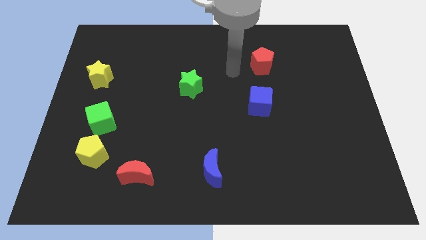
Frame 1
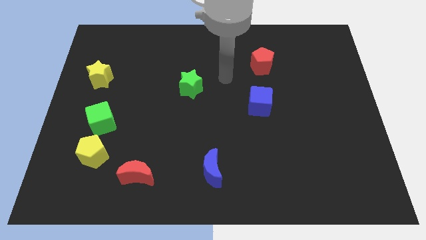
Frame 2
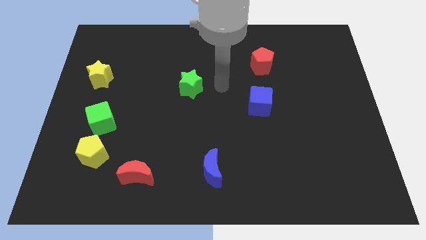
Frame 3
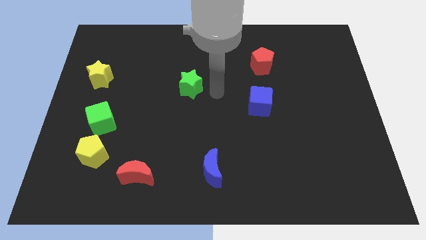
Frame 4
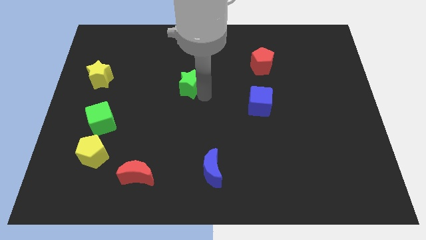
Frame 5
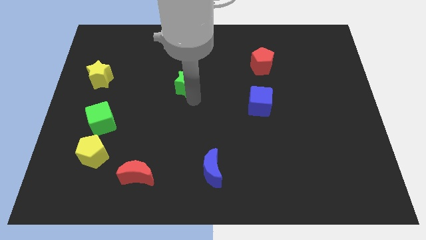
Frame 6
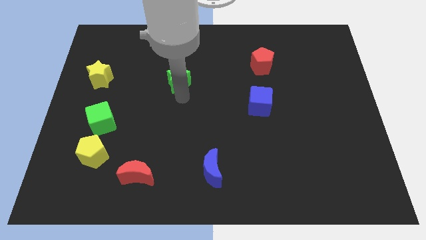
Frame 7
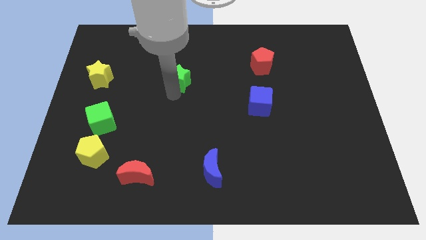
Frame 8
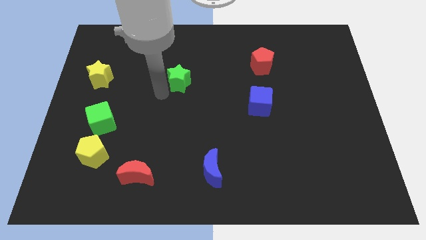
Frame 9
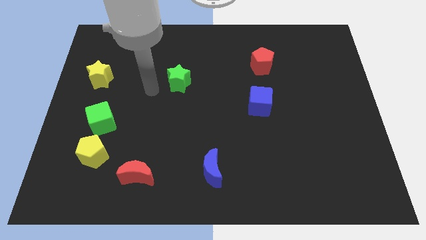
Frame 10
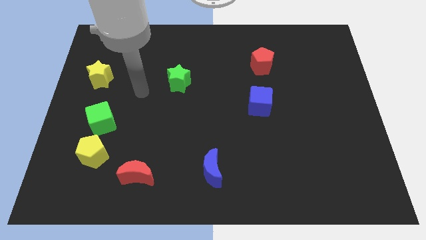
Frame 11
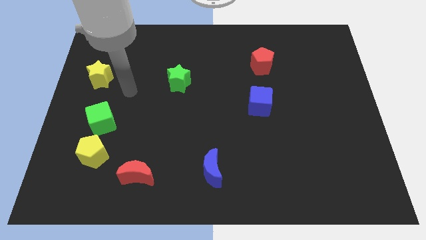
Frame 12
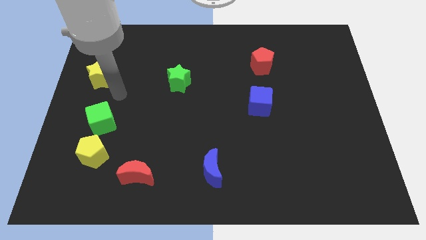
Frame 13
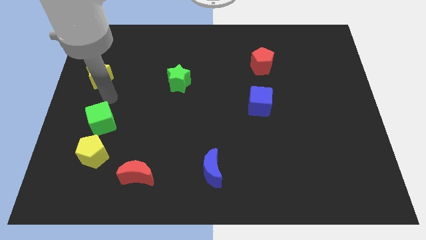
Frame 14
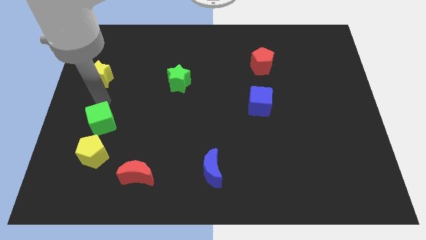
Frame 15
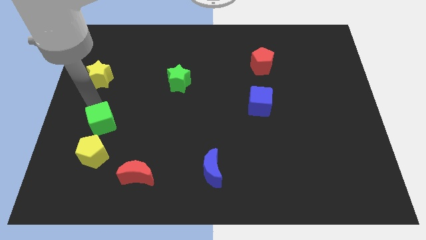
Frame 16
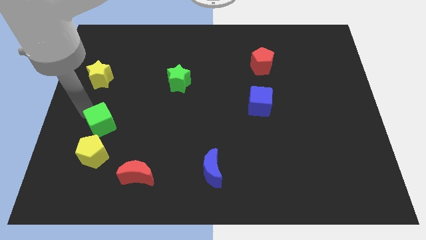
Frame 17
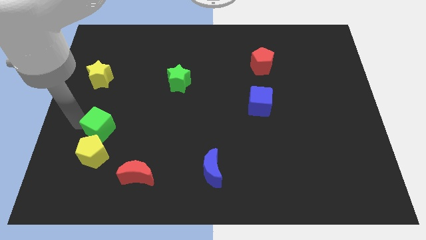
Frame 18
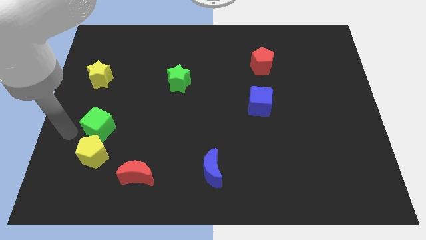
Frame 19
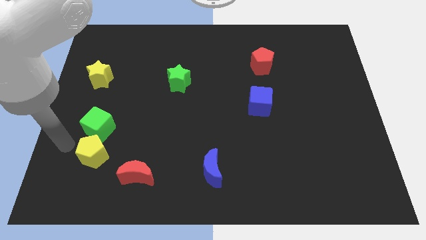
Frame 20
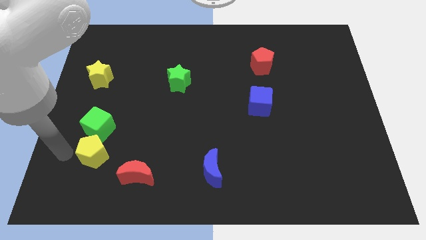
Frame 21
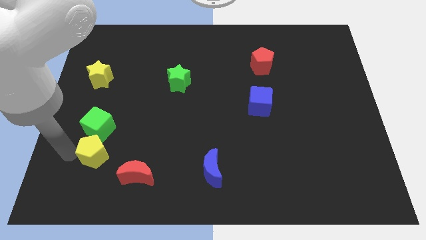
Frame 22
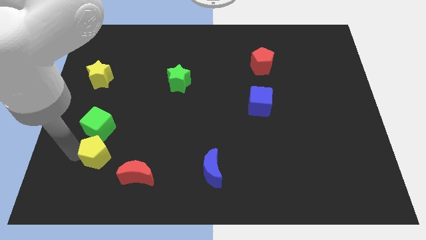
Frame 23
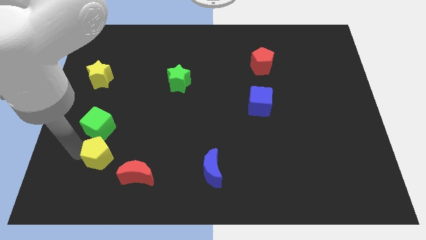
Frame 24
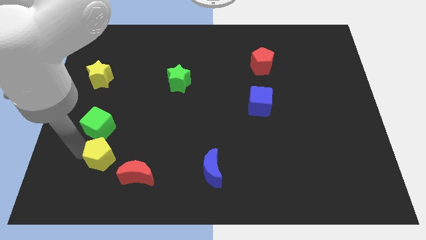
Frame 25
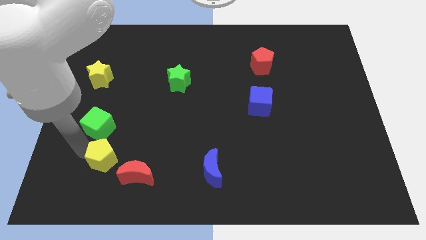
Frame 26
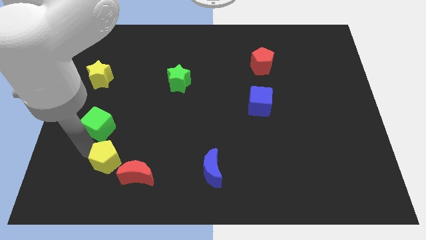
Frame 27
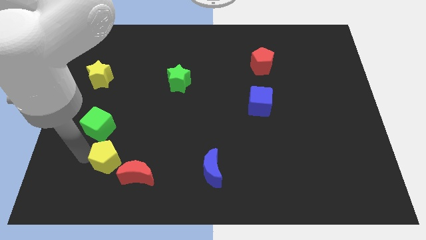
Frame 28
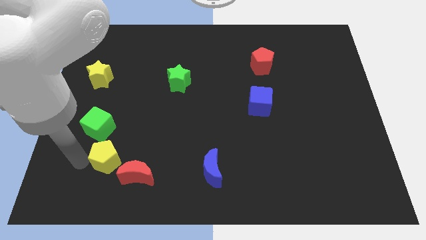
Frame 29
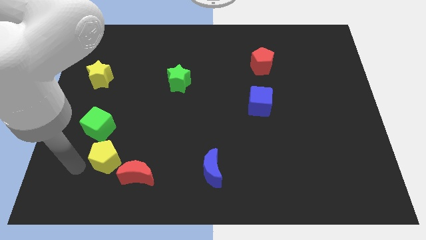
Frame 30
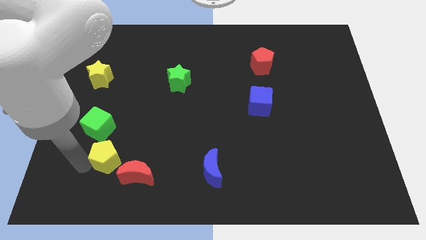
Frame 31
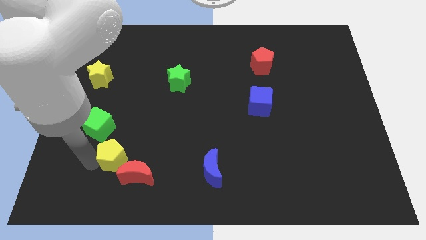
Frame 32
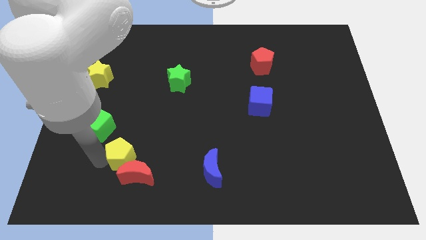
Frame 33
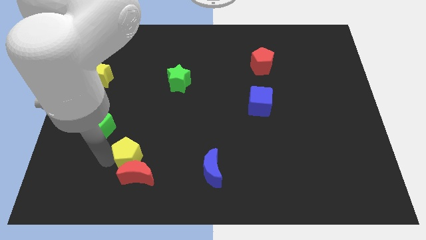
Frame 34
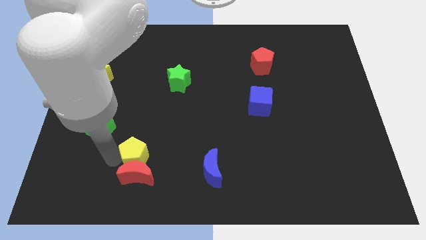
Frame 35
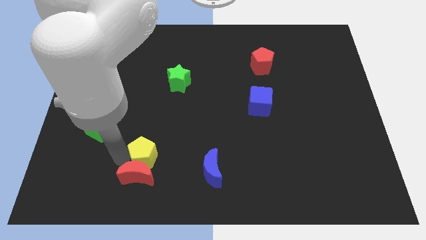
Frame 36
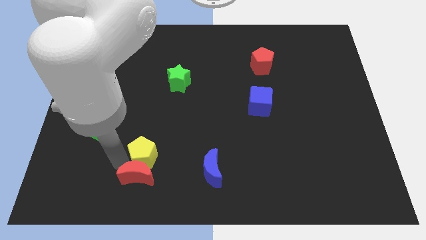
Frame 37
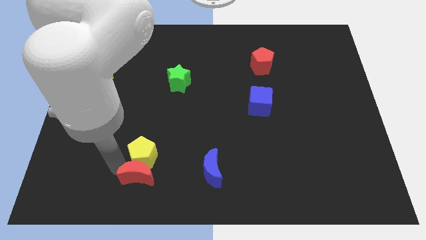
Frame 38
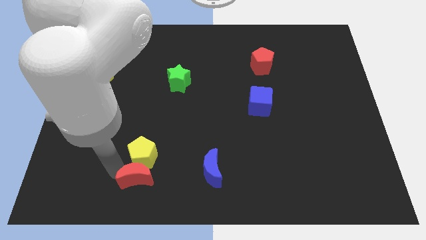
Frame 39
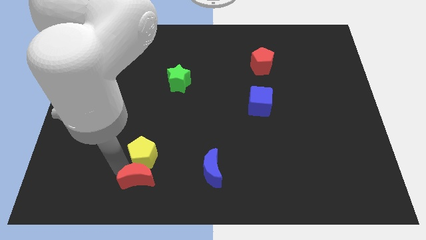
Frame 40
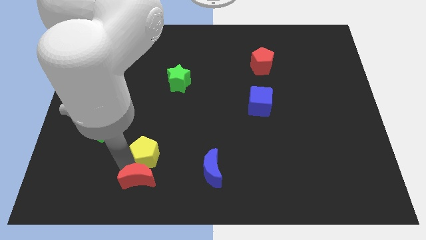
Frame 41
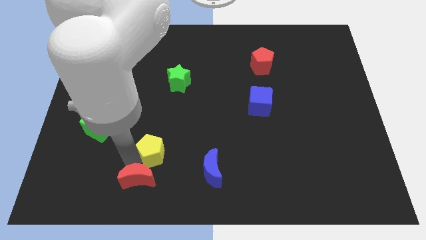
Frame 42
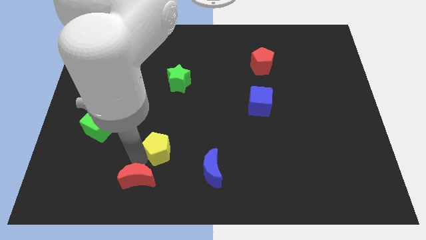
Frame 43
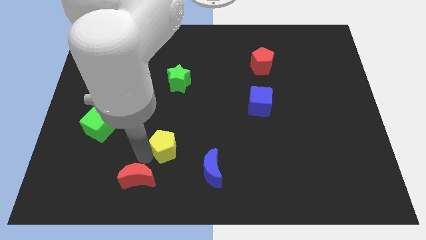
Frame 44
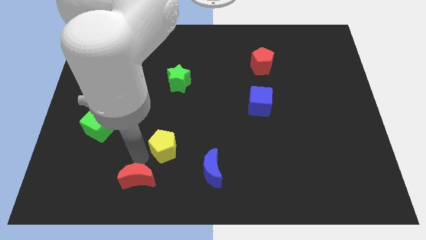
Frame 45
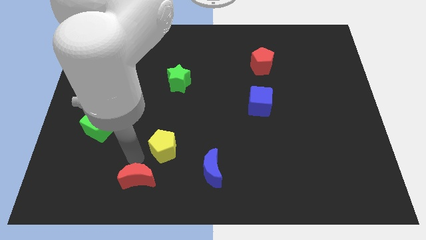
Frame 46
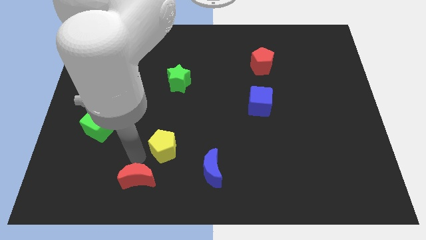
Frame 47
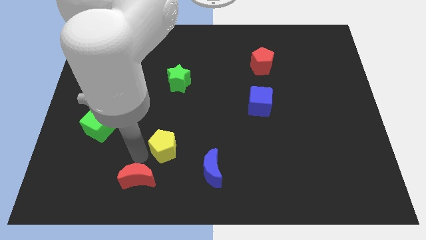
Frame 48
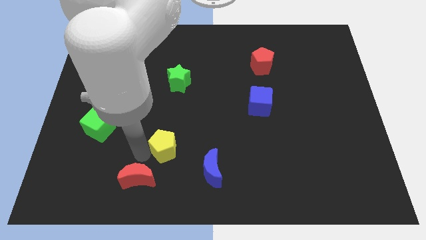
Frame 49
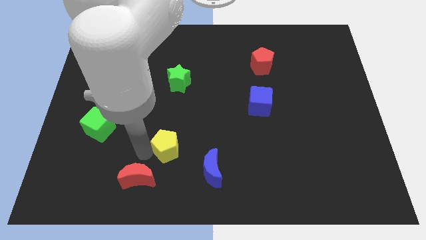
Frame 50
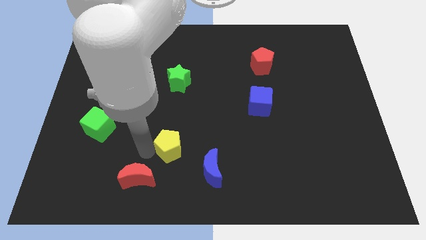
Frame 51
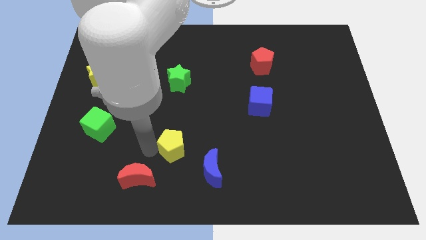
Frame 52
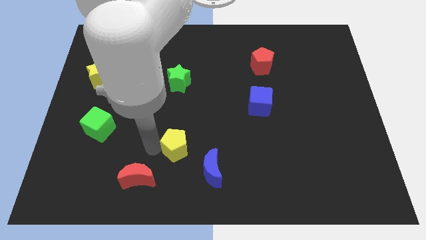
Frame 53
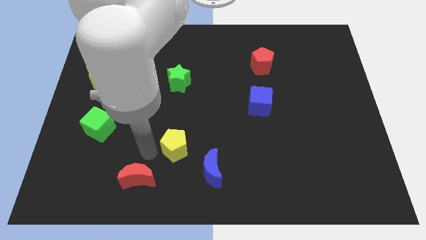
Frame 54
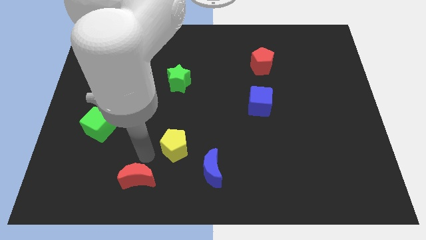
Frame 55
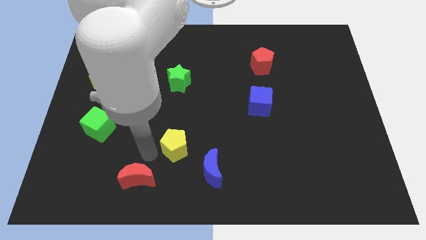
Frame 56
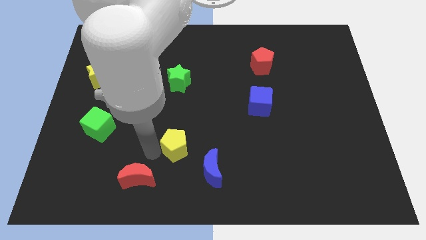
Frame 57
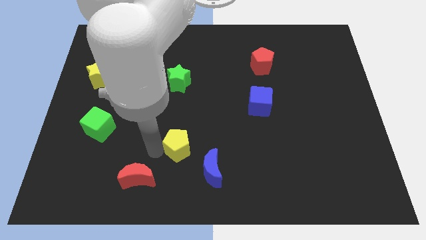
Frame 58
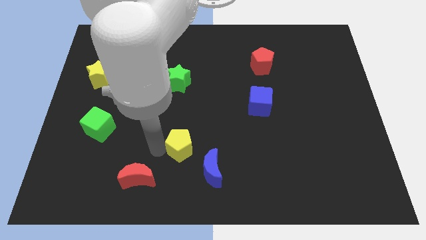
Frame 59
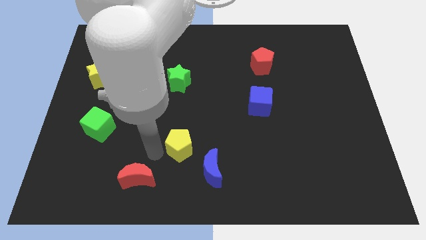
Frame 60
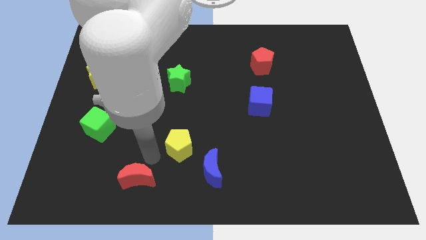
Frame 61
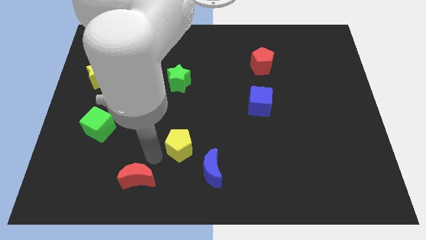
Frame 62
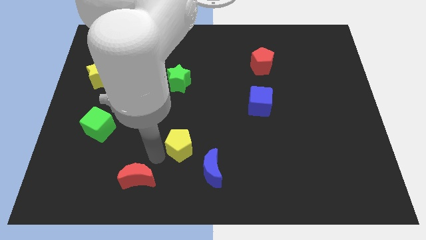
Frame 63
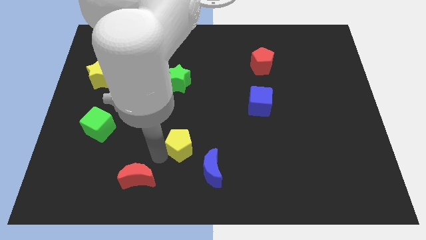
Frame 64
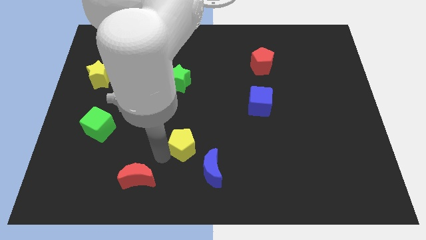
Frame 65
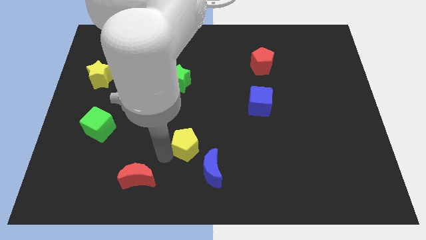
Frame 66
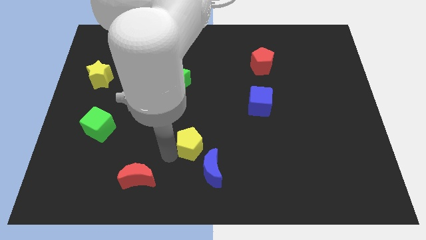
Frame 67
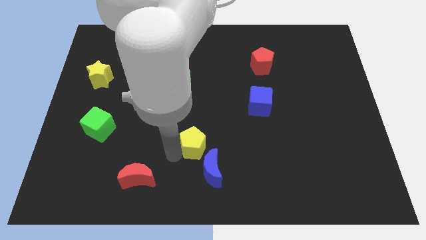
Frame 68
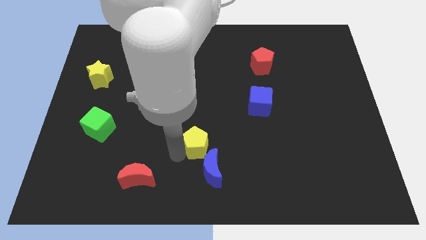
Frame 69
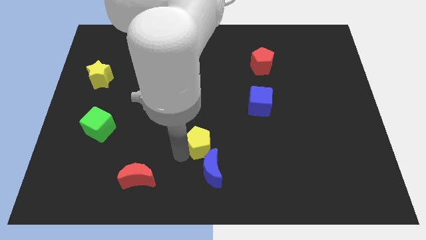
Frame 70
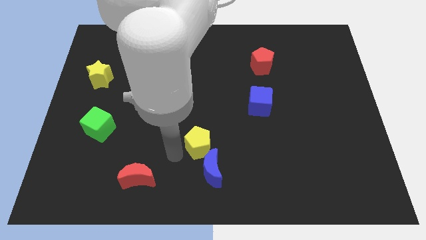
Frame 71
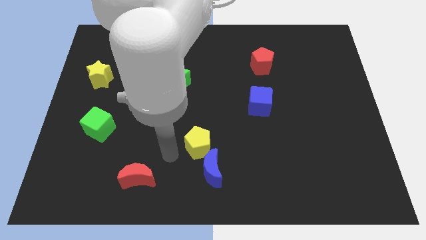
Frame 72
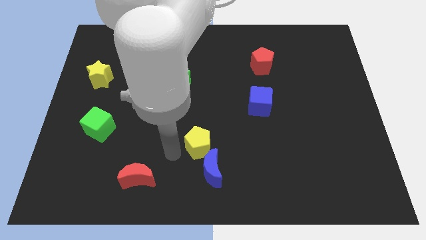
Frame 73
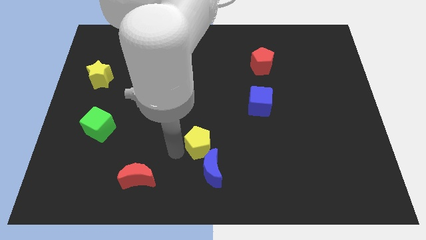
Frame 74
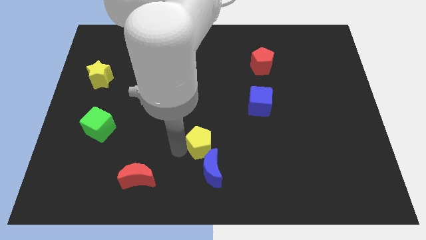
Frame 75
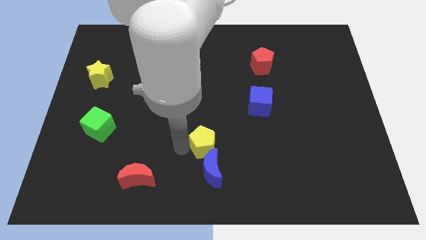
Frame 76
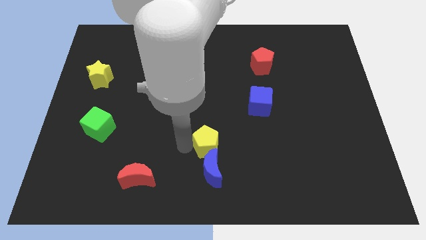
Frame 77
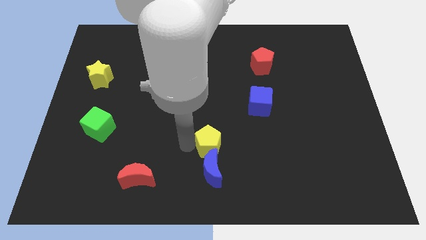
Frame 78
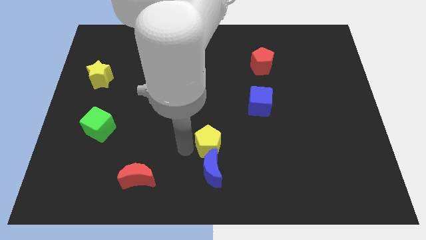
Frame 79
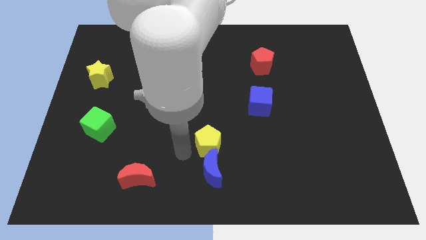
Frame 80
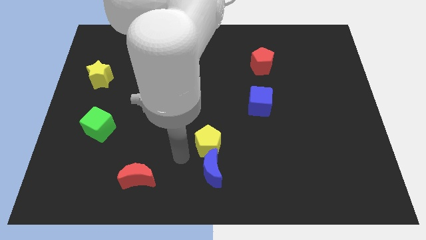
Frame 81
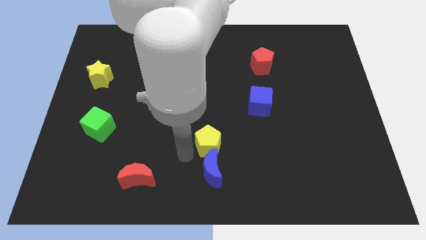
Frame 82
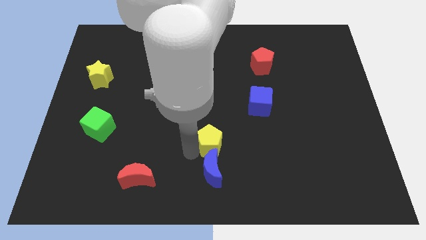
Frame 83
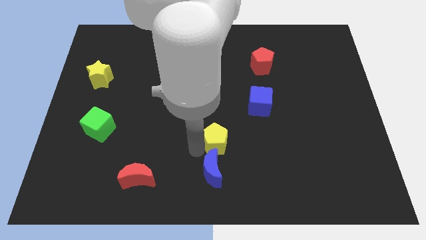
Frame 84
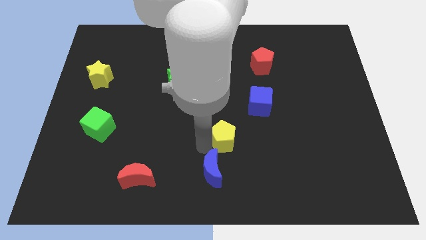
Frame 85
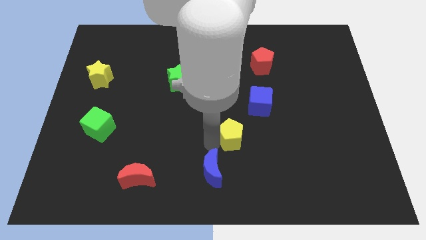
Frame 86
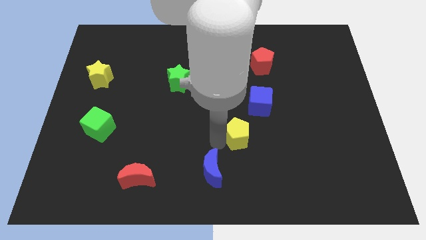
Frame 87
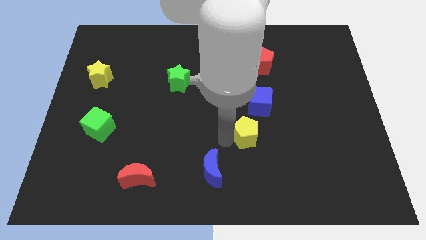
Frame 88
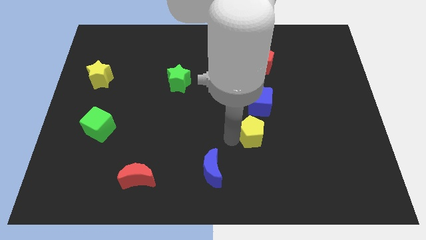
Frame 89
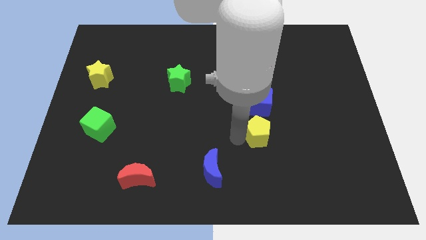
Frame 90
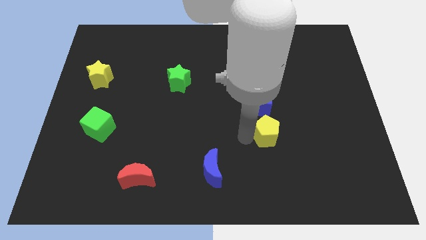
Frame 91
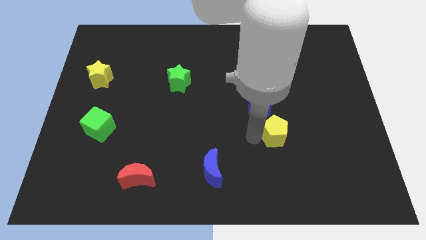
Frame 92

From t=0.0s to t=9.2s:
put the yellow pentagon to the bottom right side of the blue cube
